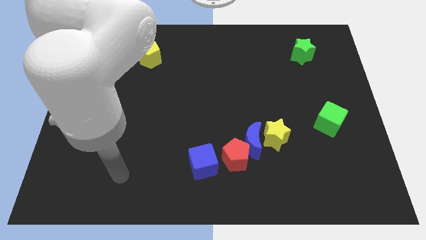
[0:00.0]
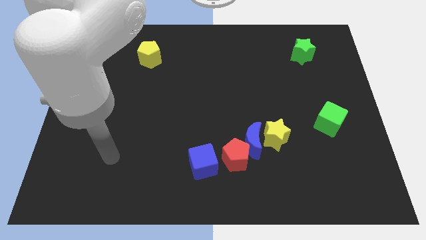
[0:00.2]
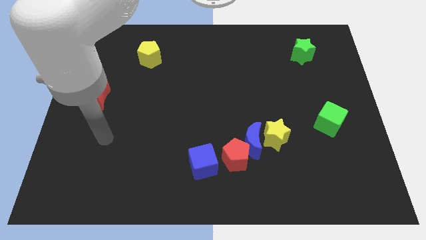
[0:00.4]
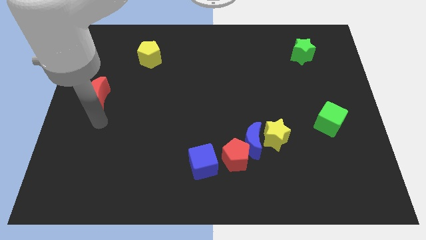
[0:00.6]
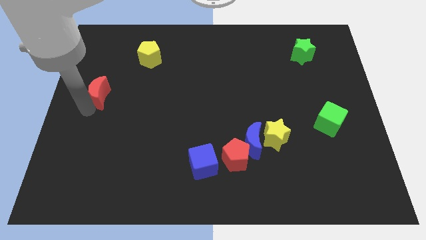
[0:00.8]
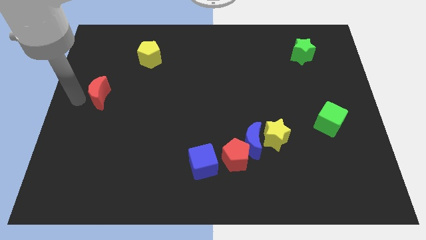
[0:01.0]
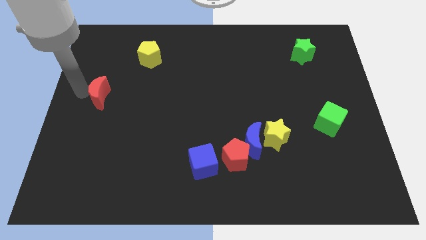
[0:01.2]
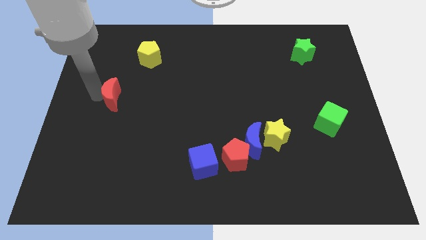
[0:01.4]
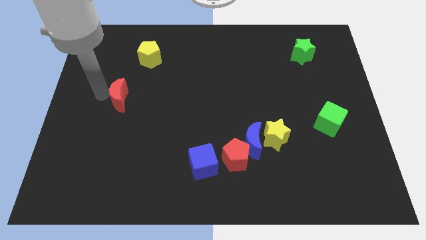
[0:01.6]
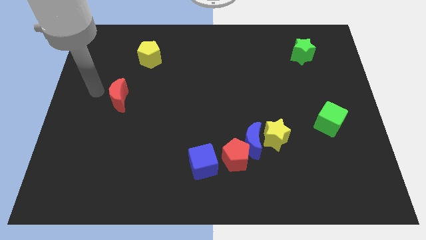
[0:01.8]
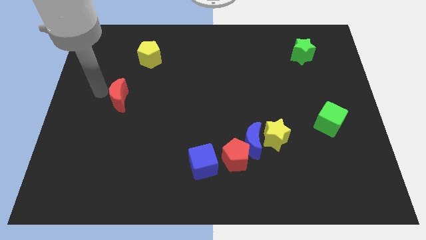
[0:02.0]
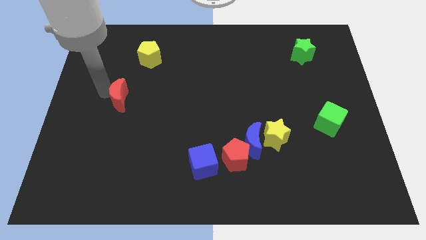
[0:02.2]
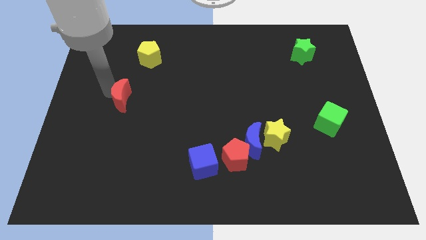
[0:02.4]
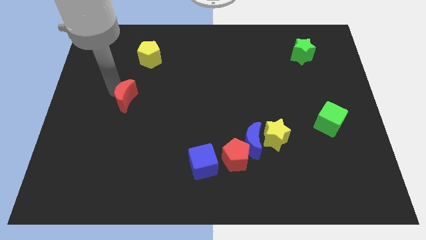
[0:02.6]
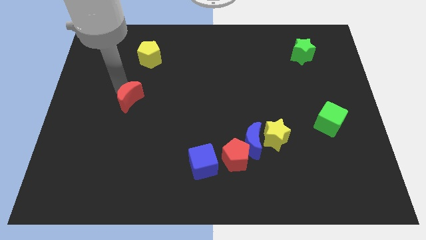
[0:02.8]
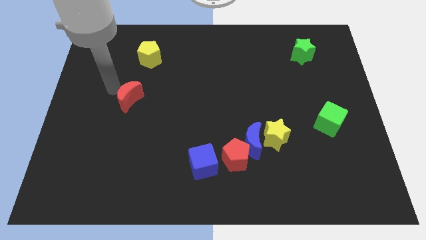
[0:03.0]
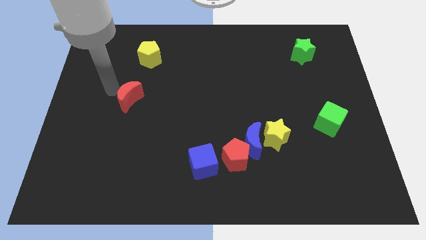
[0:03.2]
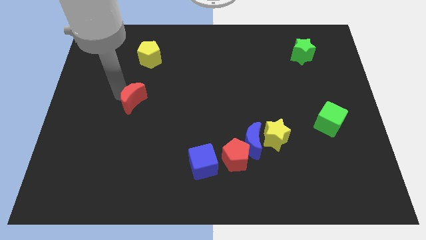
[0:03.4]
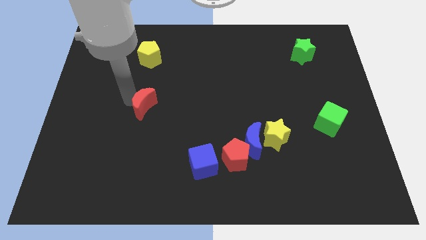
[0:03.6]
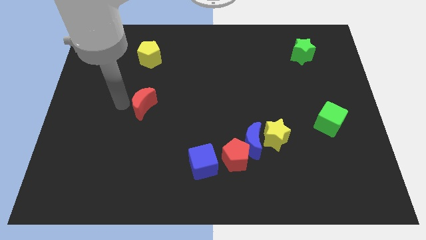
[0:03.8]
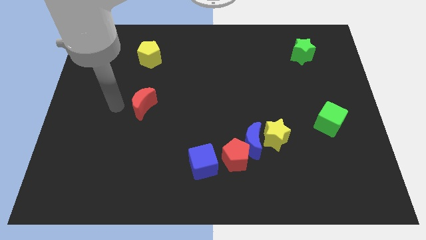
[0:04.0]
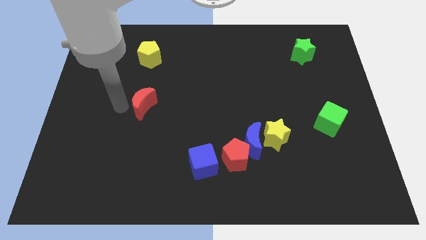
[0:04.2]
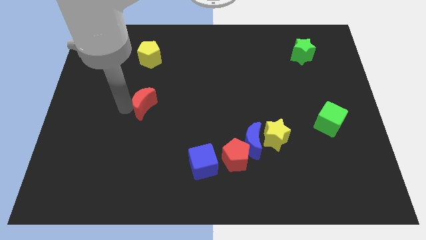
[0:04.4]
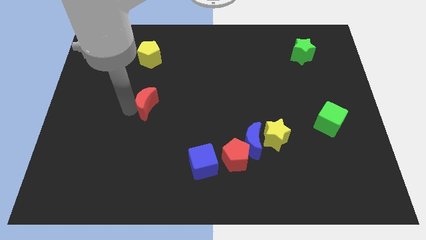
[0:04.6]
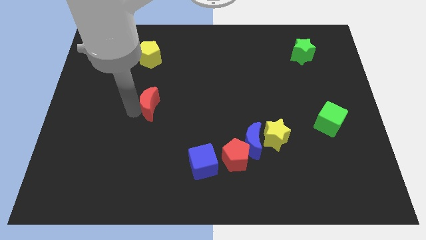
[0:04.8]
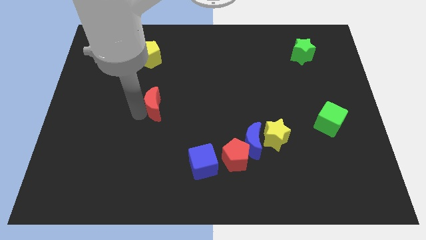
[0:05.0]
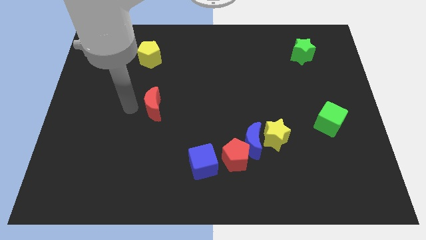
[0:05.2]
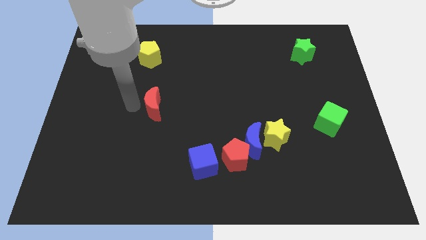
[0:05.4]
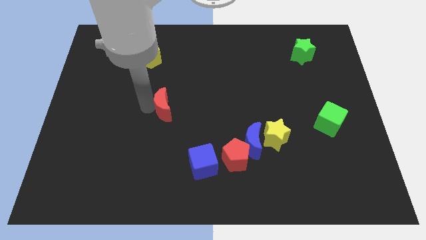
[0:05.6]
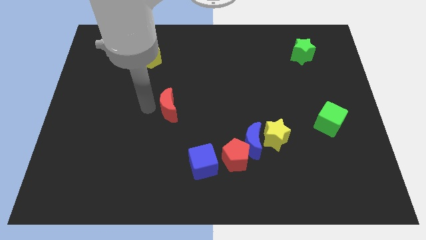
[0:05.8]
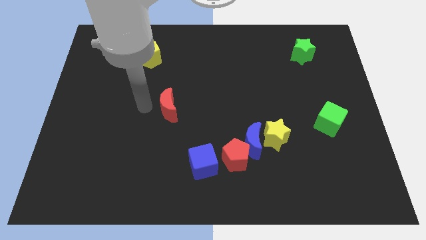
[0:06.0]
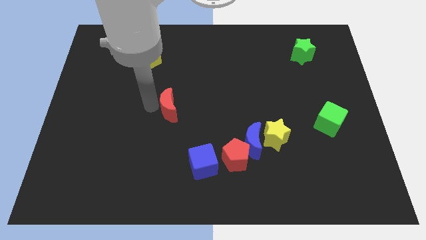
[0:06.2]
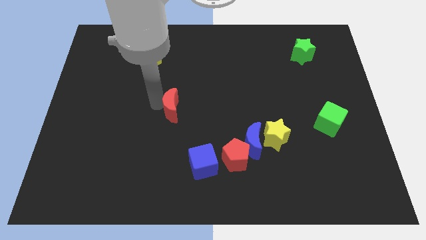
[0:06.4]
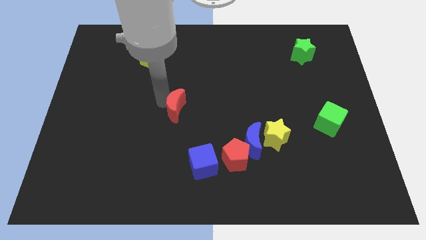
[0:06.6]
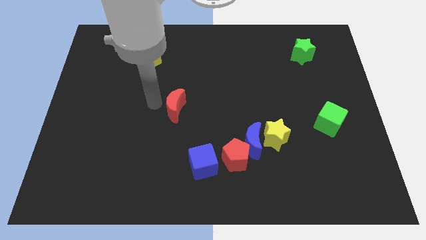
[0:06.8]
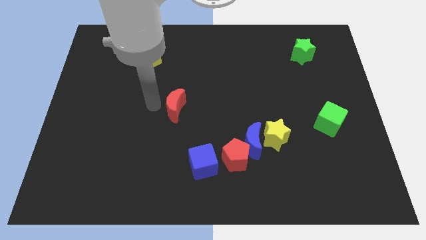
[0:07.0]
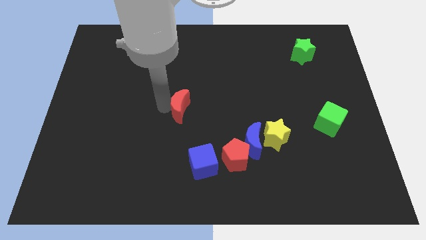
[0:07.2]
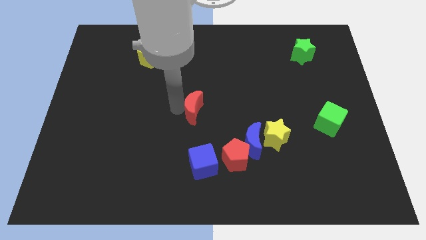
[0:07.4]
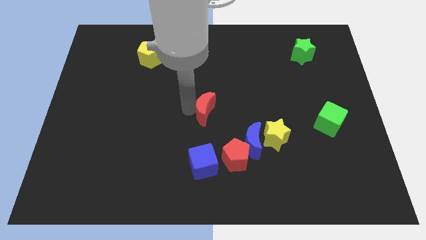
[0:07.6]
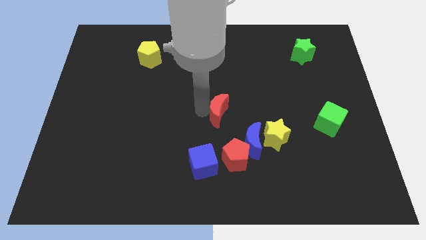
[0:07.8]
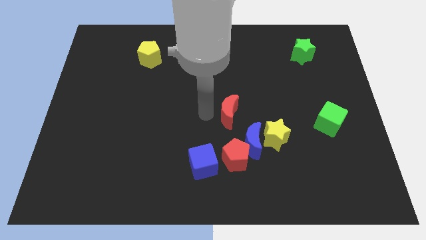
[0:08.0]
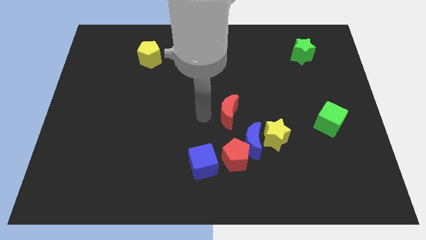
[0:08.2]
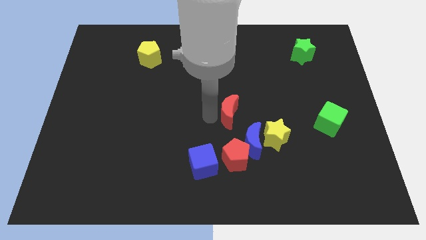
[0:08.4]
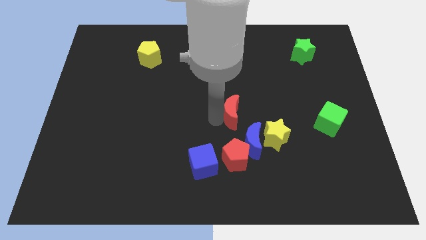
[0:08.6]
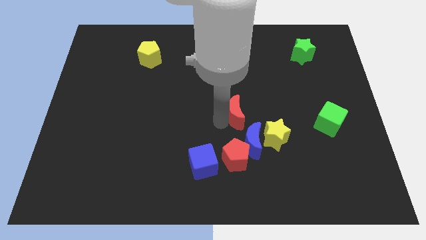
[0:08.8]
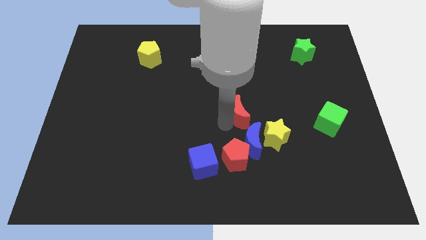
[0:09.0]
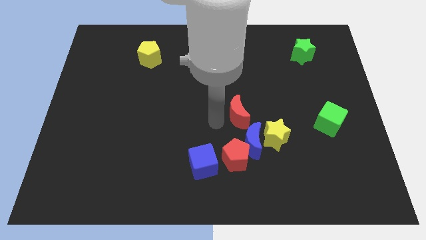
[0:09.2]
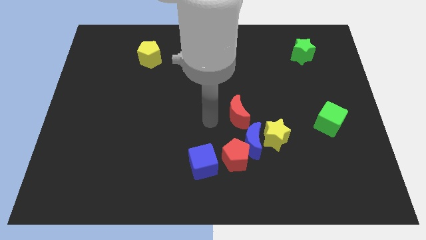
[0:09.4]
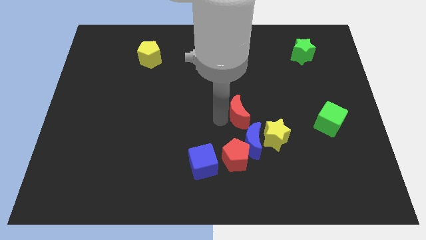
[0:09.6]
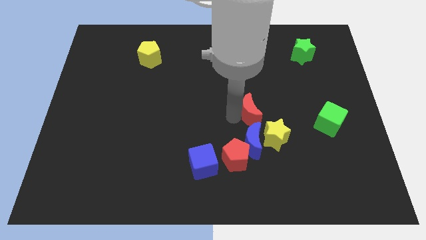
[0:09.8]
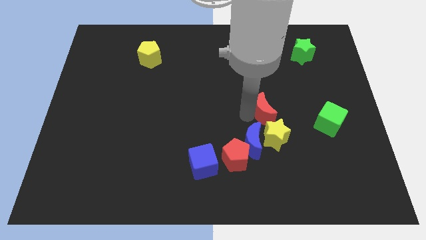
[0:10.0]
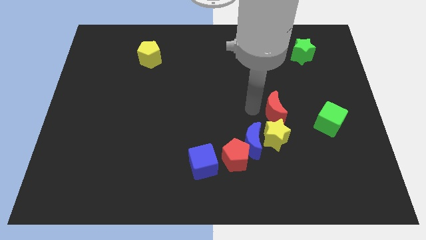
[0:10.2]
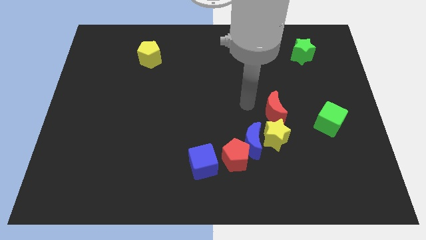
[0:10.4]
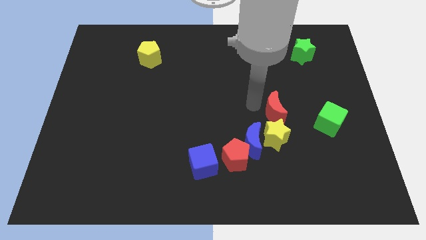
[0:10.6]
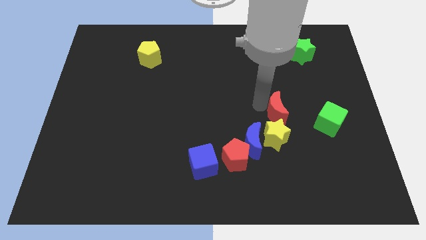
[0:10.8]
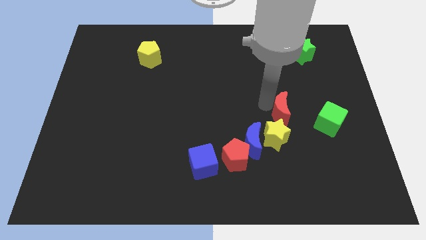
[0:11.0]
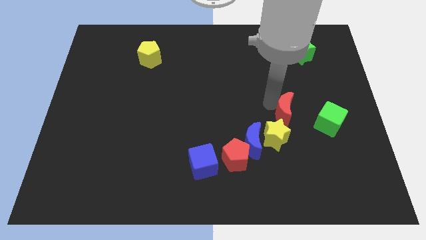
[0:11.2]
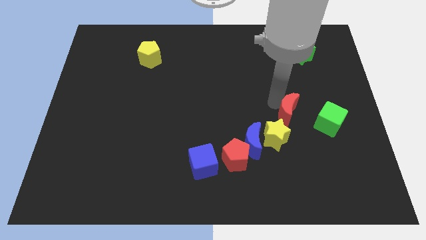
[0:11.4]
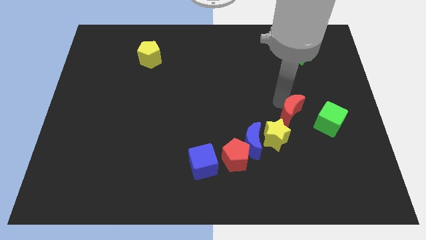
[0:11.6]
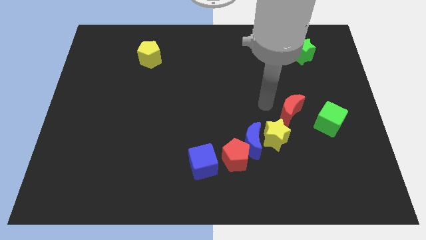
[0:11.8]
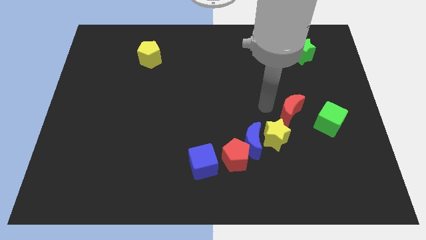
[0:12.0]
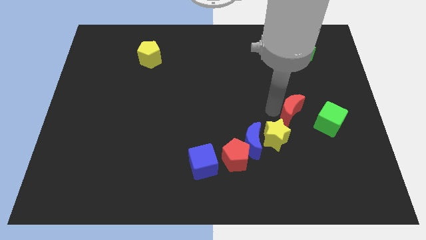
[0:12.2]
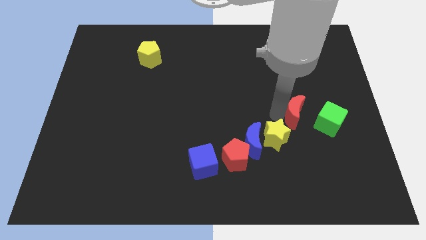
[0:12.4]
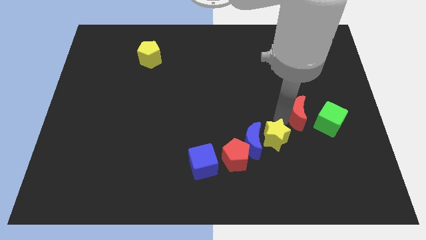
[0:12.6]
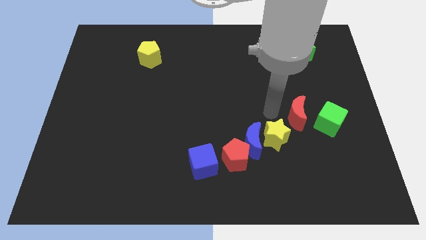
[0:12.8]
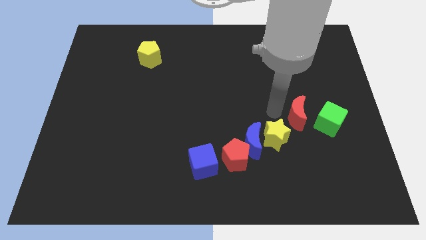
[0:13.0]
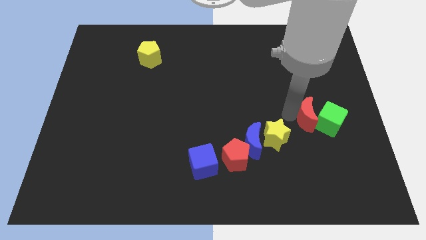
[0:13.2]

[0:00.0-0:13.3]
slide the red moon close to the green cube
